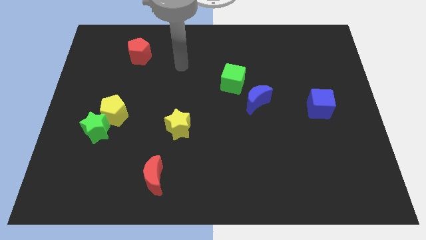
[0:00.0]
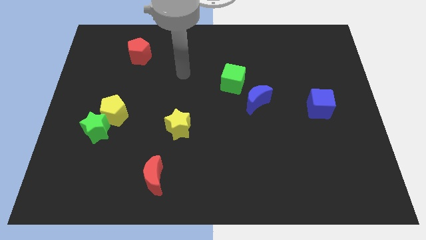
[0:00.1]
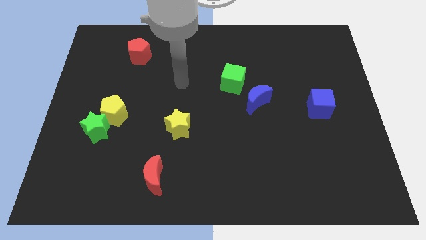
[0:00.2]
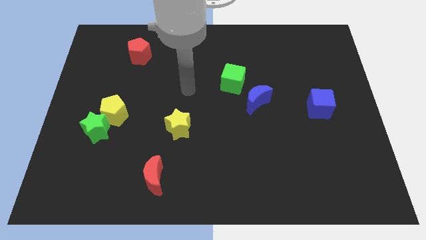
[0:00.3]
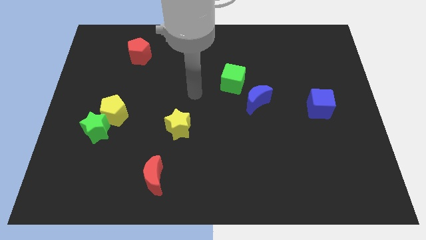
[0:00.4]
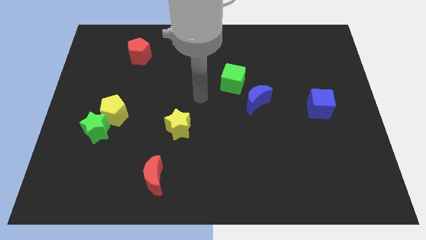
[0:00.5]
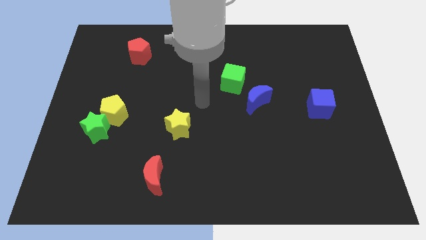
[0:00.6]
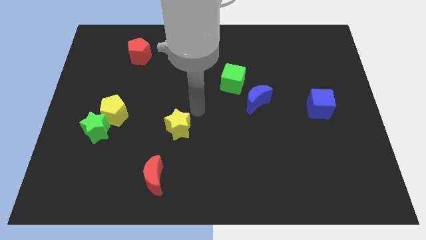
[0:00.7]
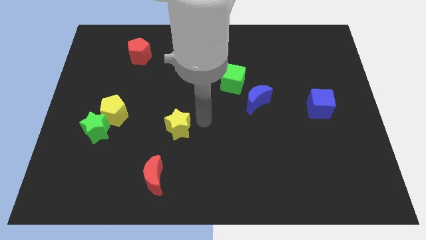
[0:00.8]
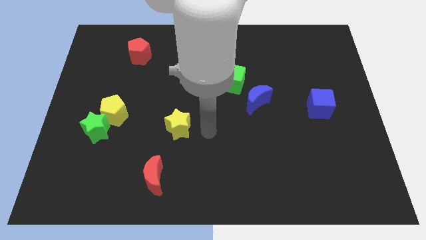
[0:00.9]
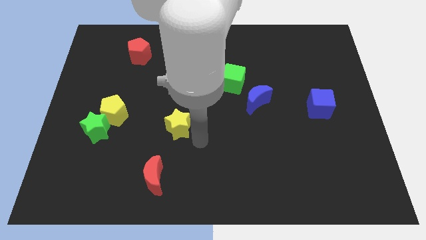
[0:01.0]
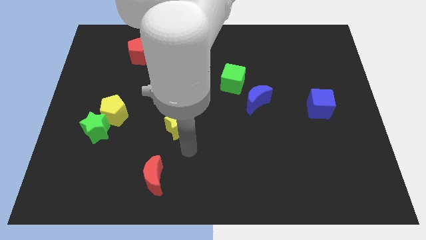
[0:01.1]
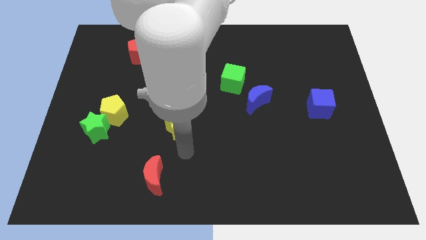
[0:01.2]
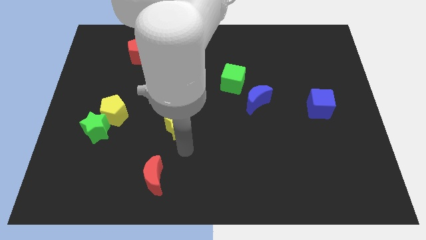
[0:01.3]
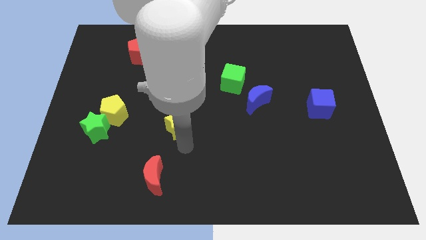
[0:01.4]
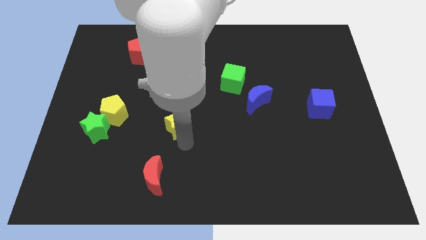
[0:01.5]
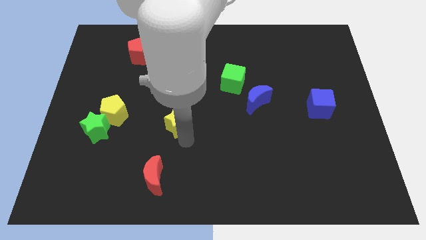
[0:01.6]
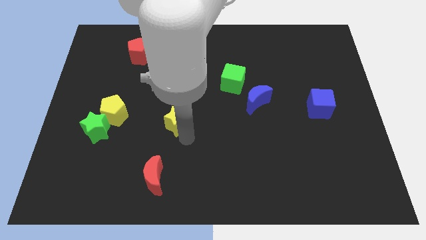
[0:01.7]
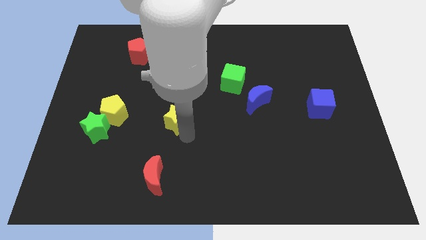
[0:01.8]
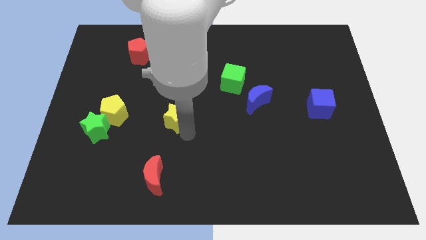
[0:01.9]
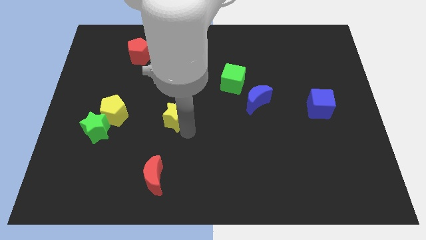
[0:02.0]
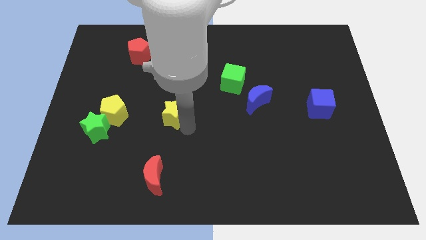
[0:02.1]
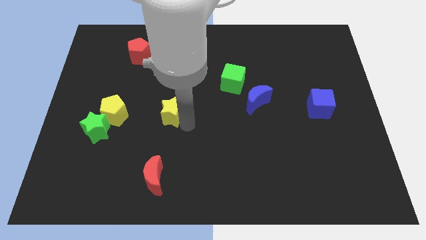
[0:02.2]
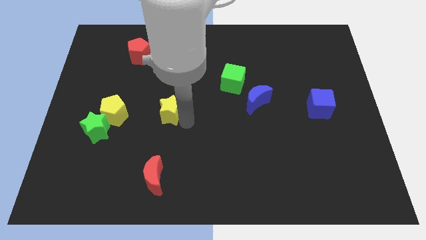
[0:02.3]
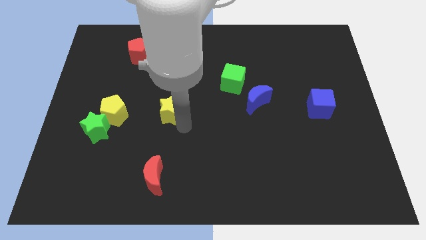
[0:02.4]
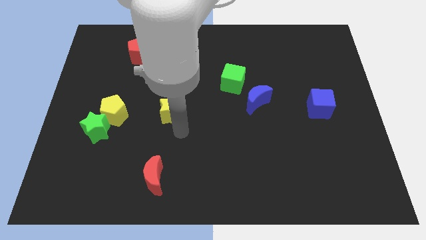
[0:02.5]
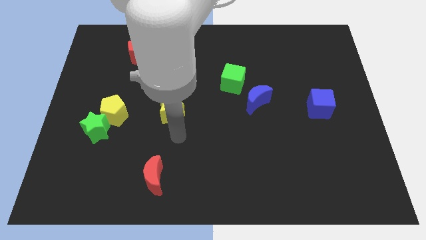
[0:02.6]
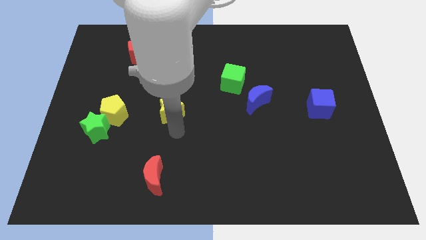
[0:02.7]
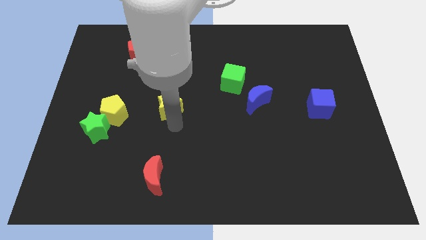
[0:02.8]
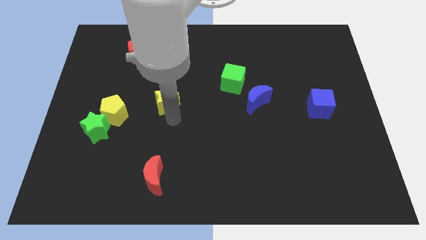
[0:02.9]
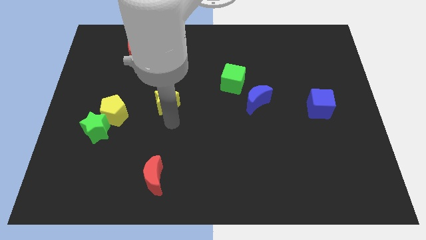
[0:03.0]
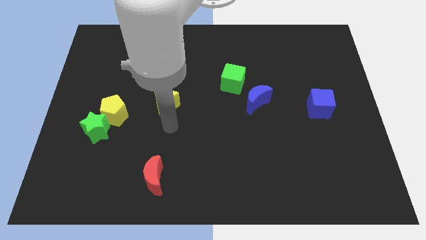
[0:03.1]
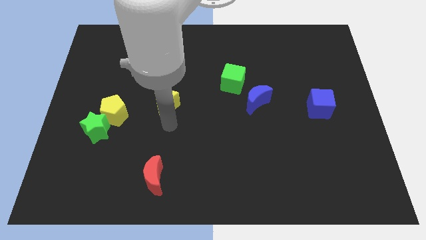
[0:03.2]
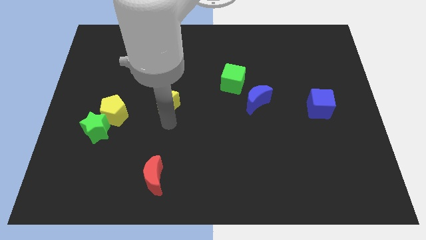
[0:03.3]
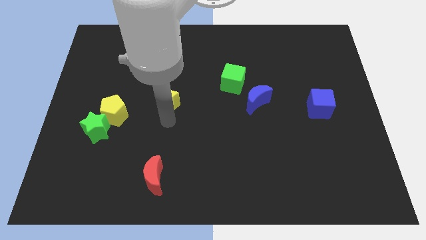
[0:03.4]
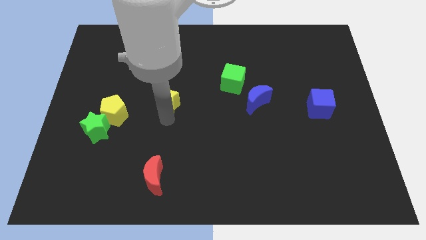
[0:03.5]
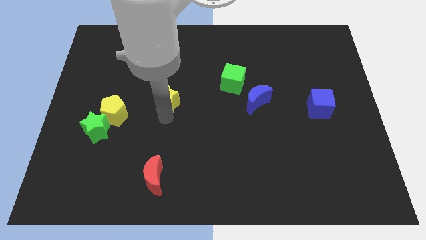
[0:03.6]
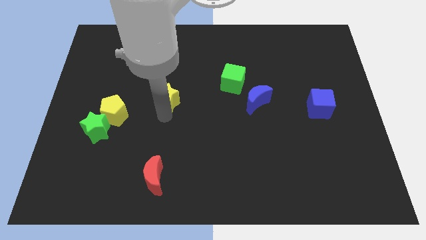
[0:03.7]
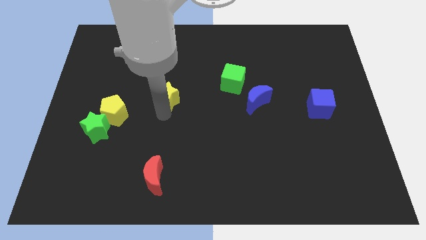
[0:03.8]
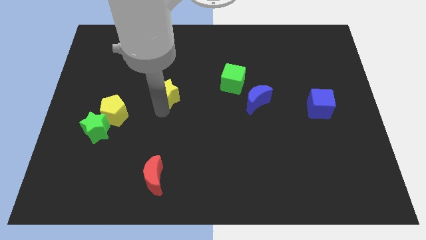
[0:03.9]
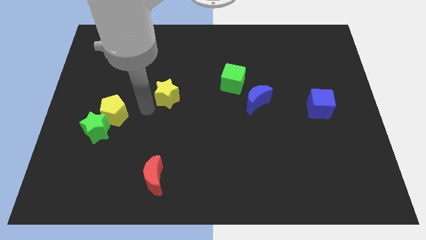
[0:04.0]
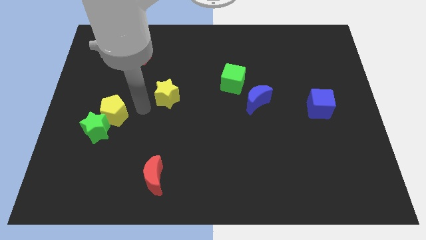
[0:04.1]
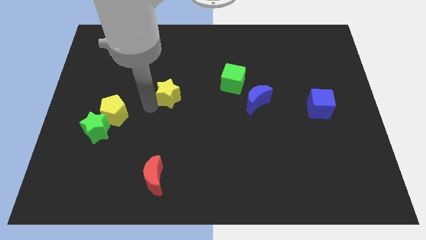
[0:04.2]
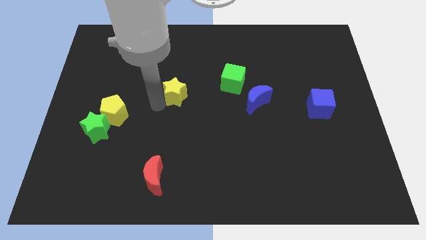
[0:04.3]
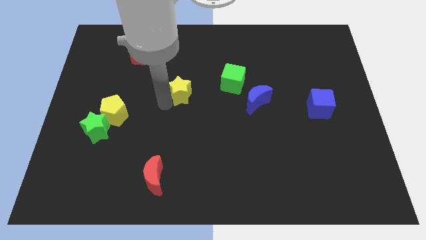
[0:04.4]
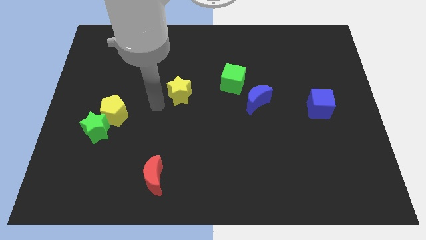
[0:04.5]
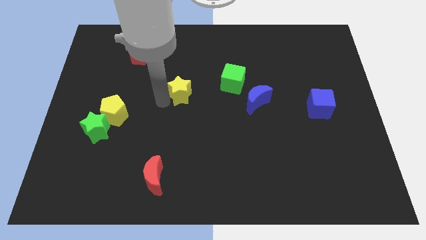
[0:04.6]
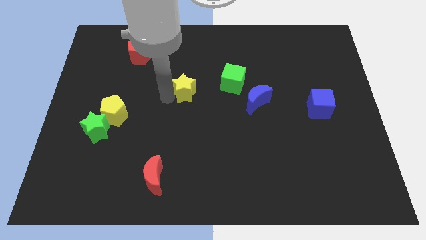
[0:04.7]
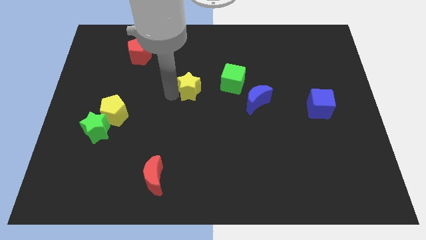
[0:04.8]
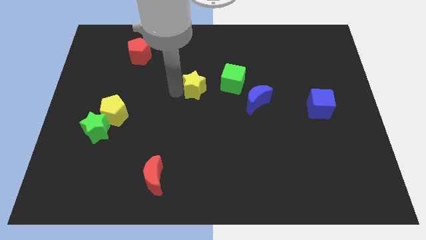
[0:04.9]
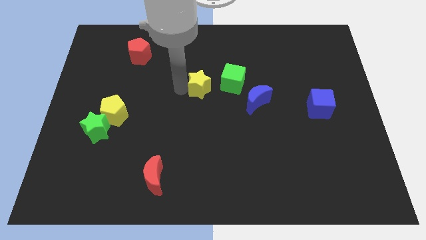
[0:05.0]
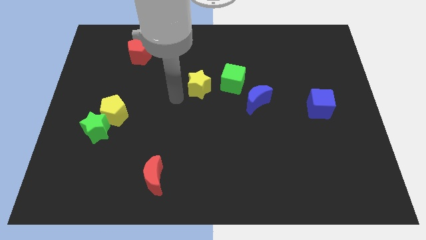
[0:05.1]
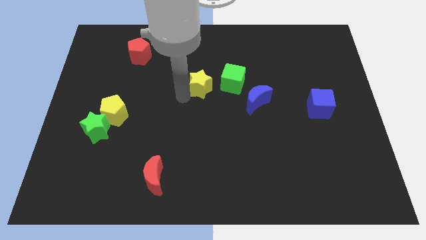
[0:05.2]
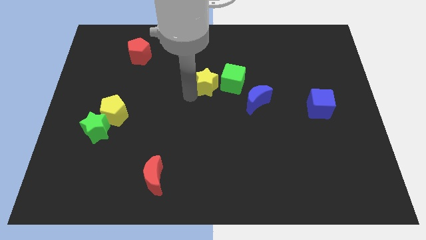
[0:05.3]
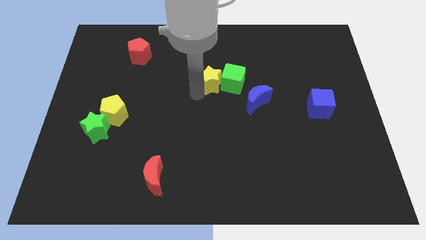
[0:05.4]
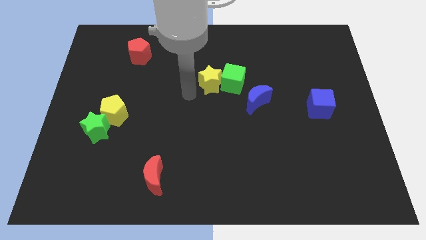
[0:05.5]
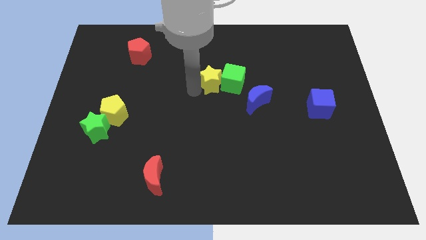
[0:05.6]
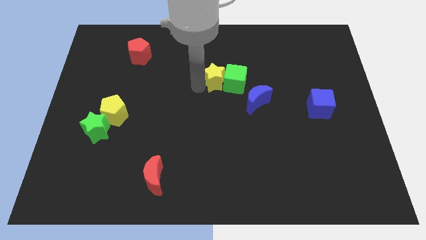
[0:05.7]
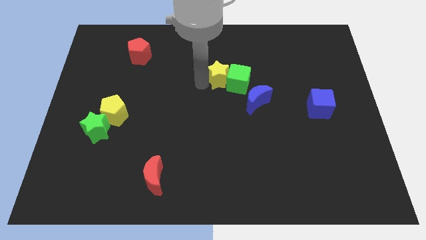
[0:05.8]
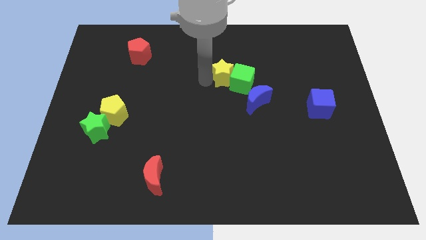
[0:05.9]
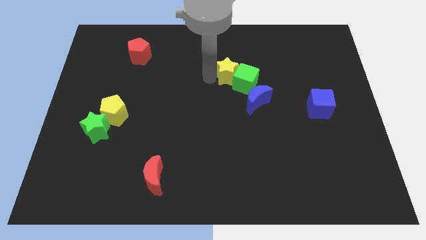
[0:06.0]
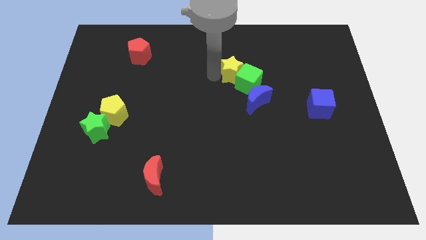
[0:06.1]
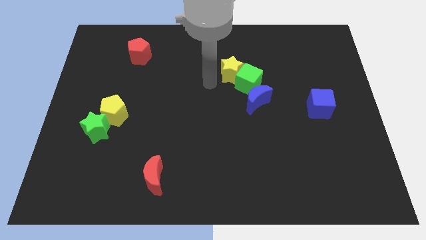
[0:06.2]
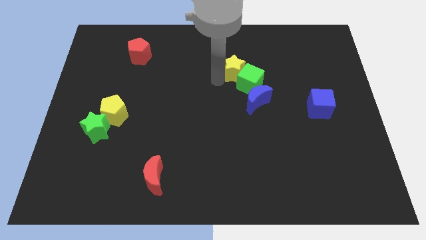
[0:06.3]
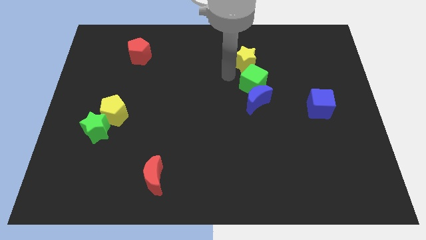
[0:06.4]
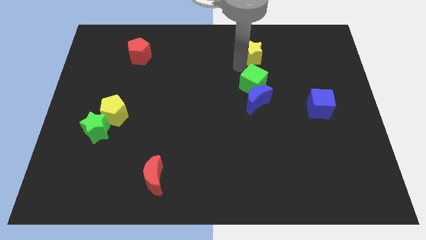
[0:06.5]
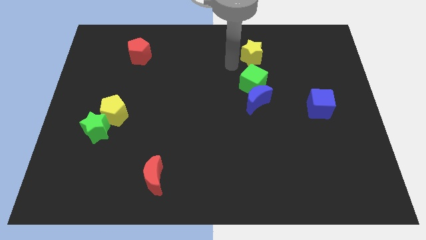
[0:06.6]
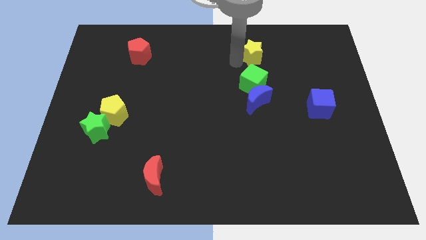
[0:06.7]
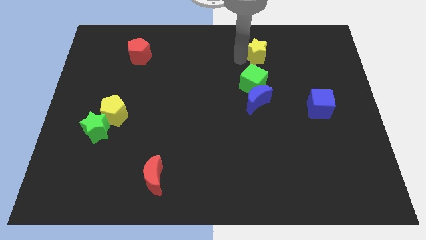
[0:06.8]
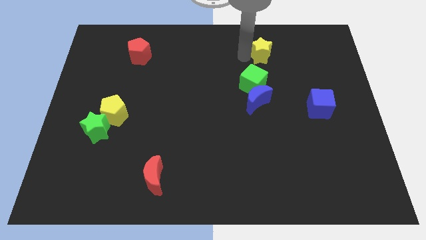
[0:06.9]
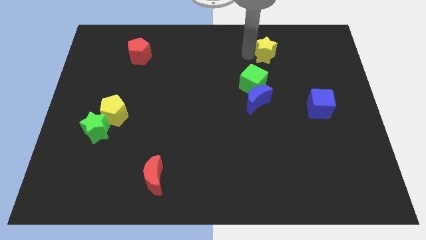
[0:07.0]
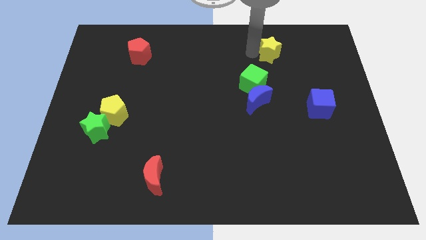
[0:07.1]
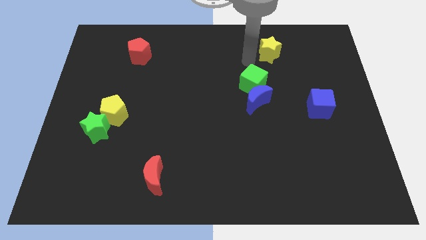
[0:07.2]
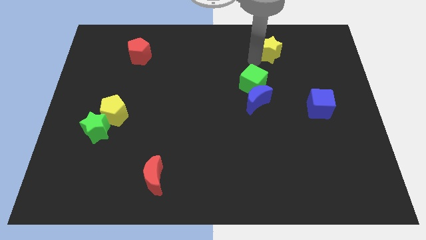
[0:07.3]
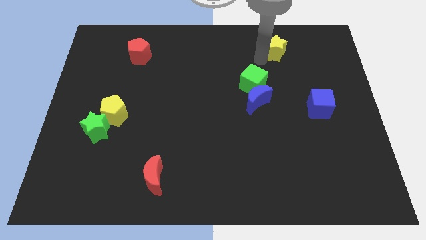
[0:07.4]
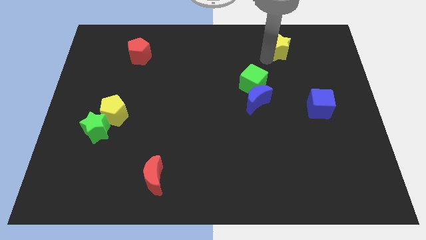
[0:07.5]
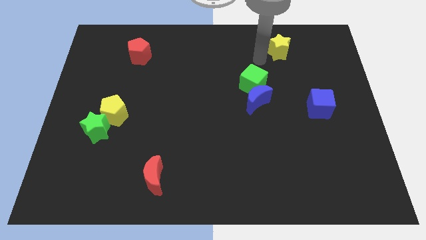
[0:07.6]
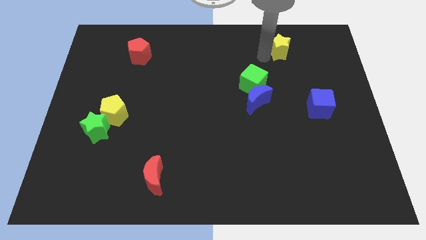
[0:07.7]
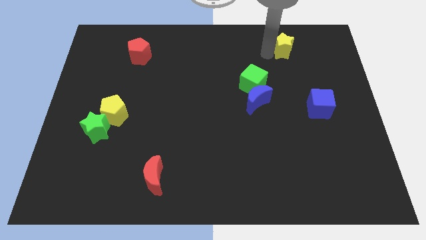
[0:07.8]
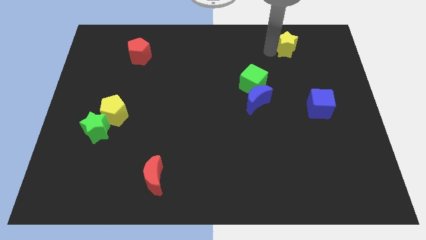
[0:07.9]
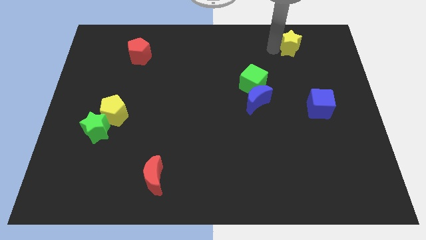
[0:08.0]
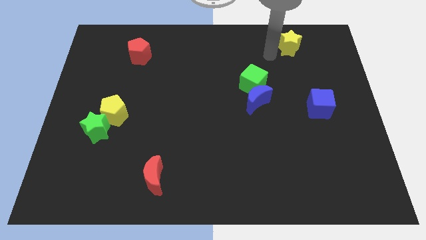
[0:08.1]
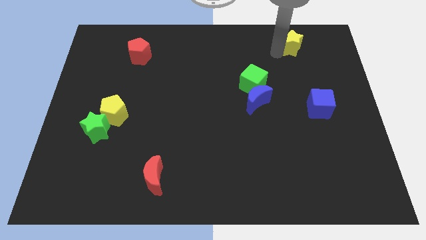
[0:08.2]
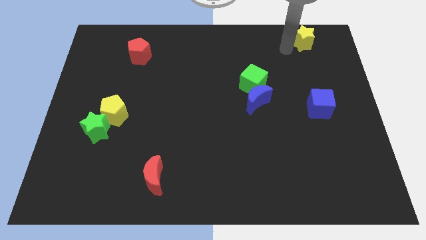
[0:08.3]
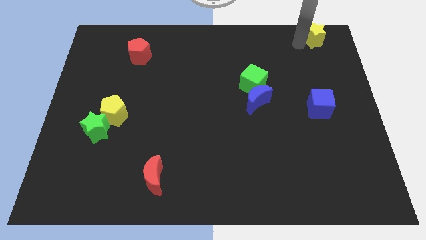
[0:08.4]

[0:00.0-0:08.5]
slide the yellow star to the upper right corner
